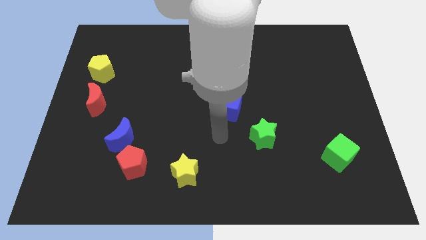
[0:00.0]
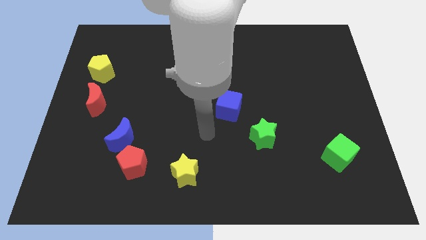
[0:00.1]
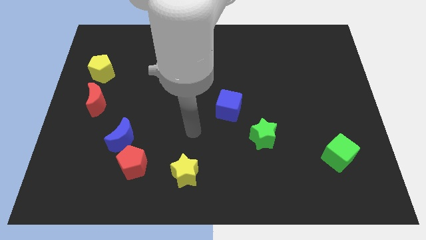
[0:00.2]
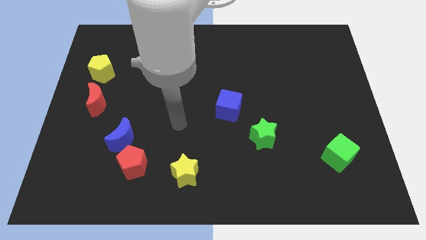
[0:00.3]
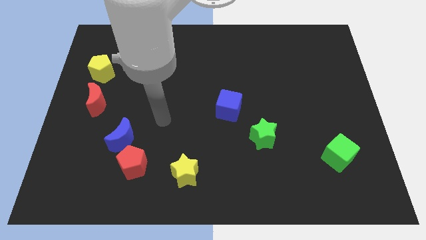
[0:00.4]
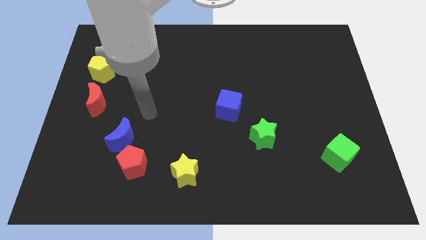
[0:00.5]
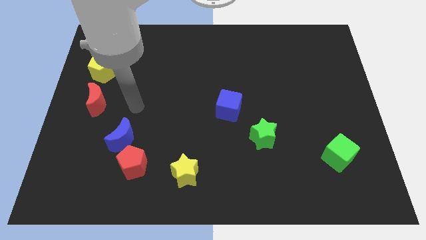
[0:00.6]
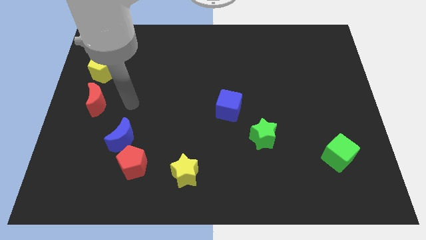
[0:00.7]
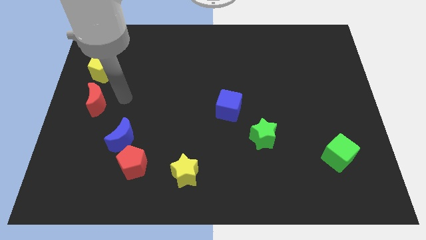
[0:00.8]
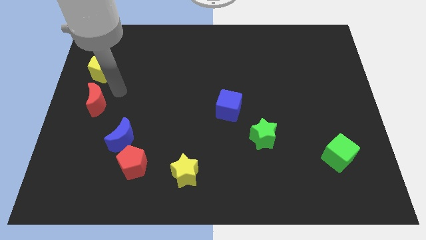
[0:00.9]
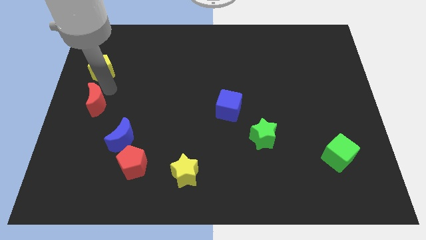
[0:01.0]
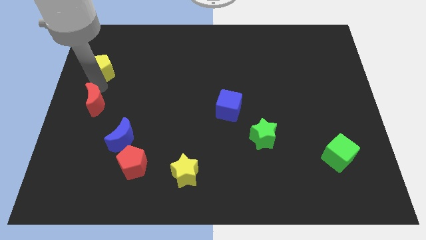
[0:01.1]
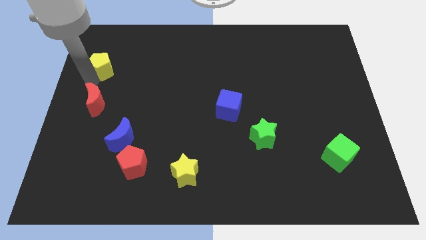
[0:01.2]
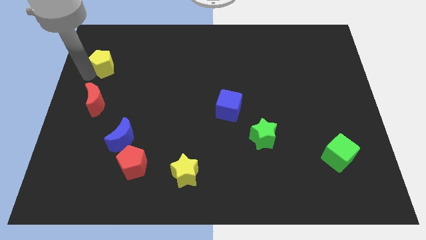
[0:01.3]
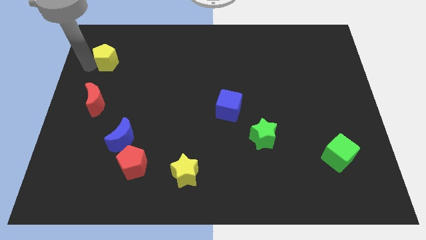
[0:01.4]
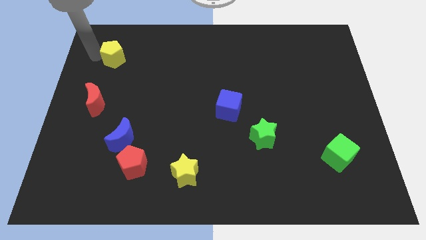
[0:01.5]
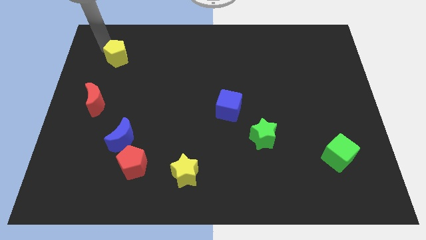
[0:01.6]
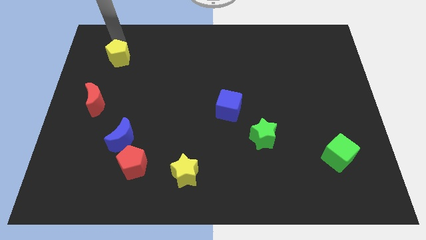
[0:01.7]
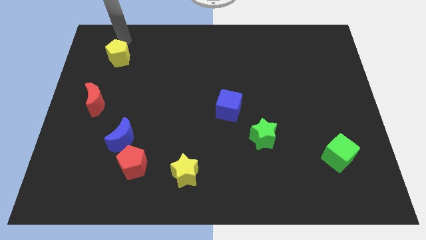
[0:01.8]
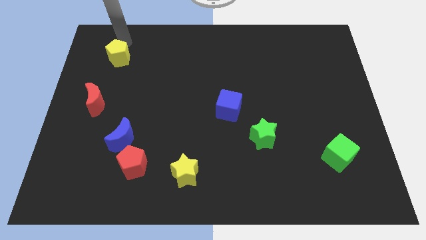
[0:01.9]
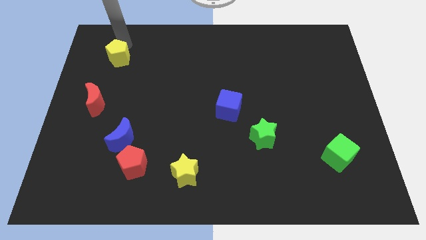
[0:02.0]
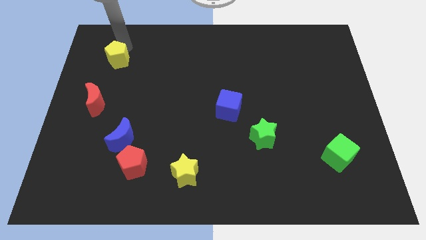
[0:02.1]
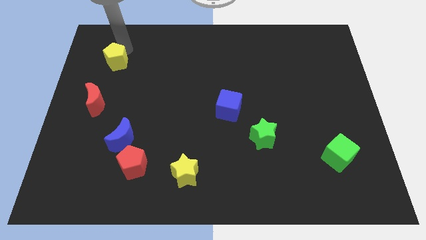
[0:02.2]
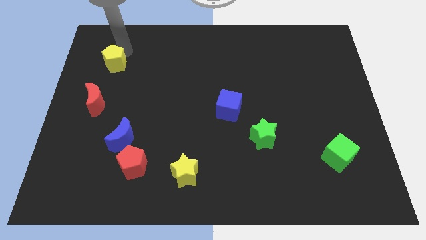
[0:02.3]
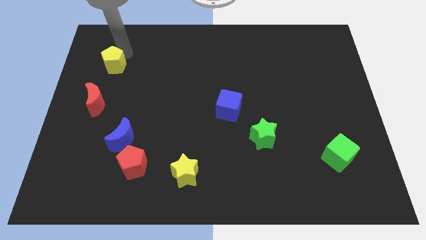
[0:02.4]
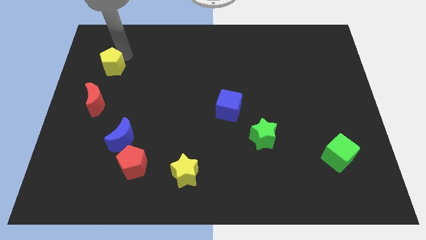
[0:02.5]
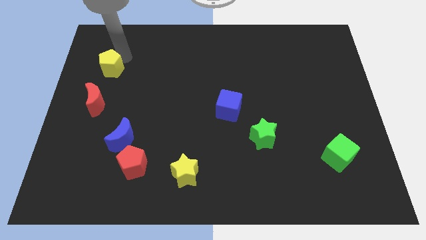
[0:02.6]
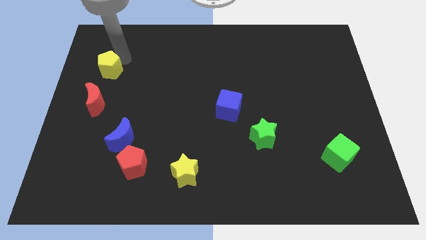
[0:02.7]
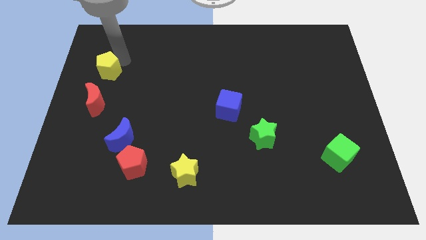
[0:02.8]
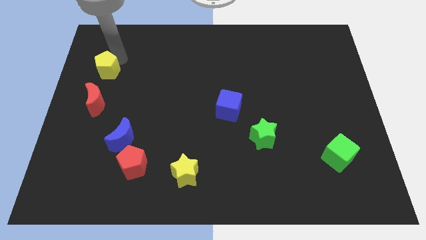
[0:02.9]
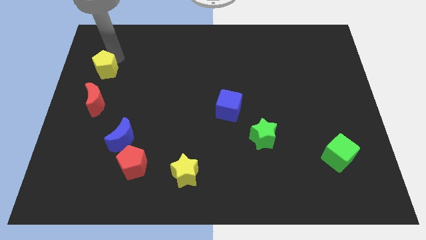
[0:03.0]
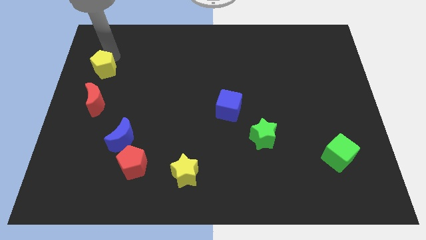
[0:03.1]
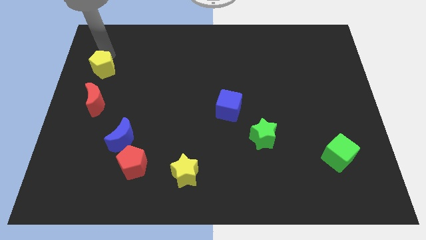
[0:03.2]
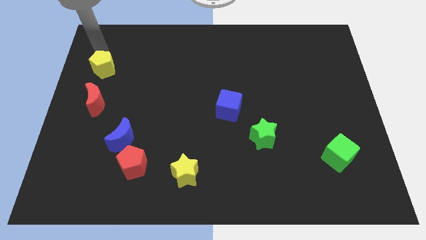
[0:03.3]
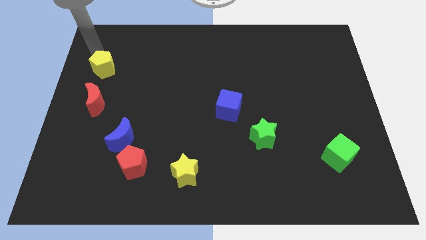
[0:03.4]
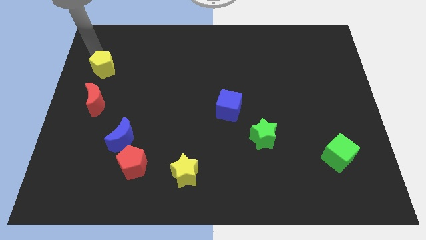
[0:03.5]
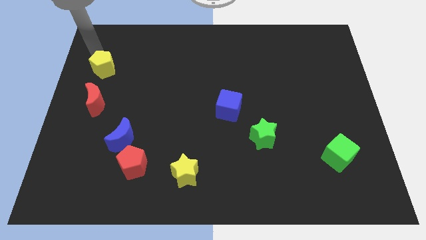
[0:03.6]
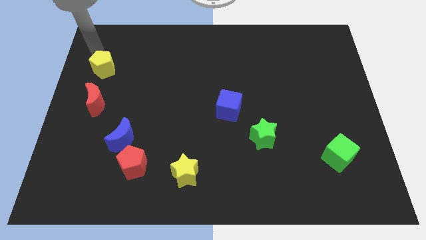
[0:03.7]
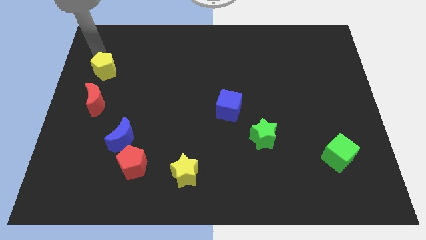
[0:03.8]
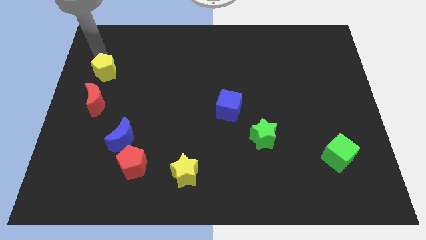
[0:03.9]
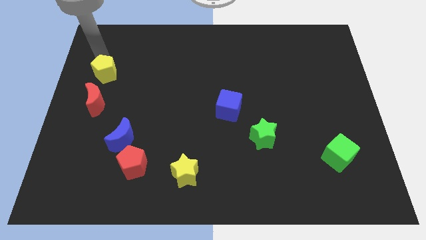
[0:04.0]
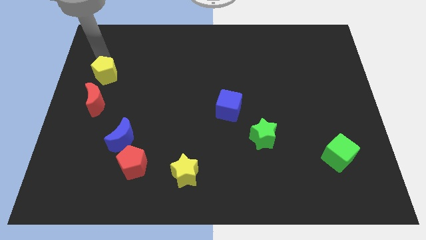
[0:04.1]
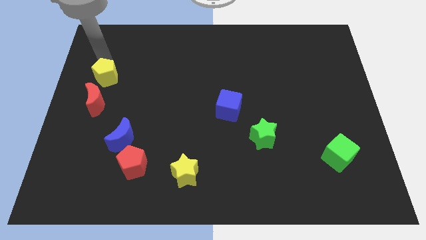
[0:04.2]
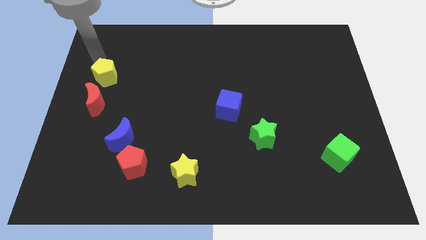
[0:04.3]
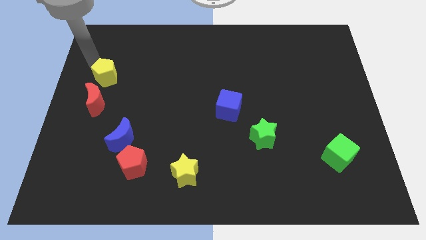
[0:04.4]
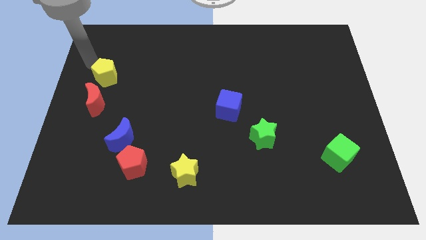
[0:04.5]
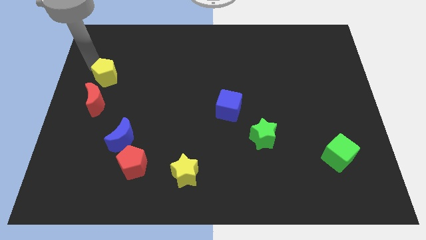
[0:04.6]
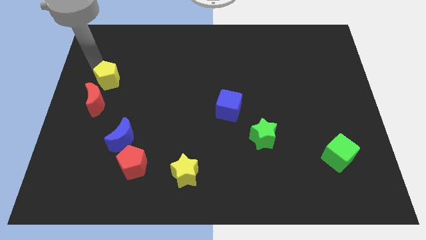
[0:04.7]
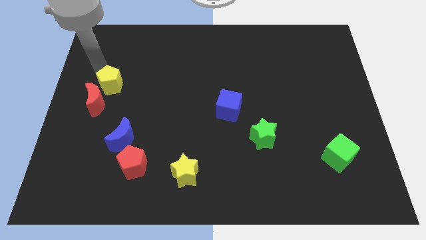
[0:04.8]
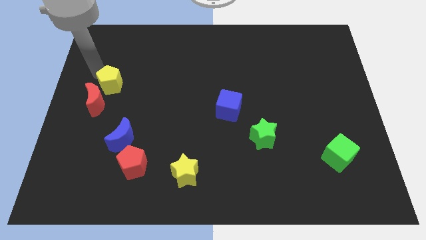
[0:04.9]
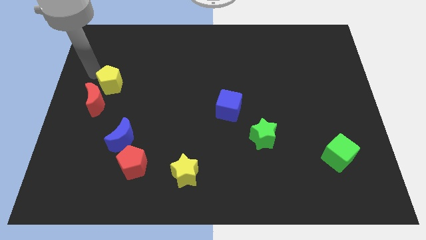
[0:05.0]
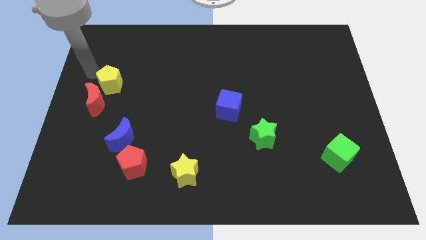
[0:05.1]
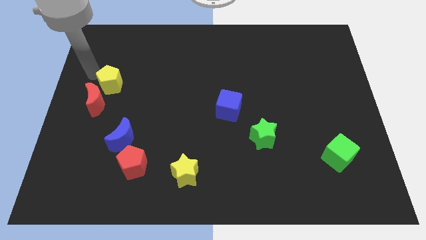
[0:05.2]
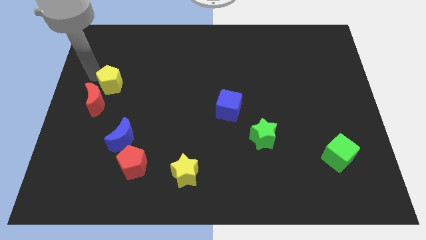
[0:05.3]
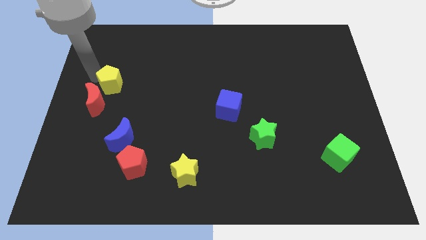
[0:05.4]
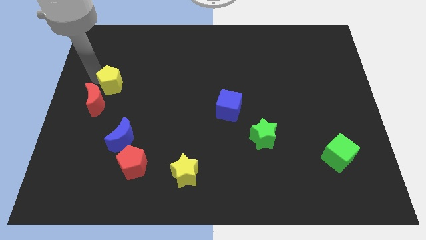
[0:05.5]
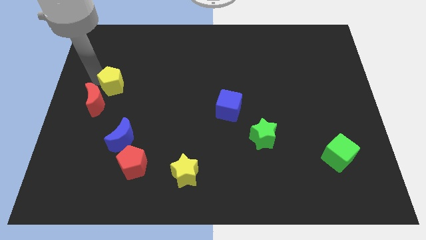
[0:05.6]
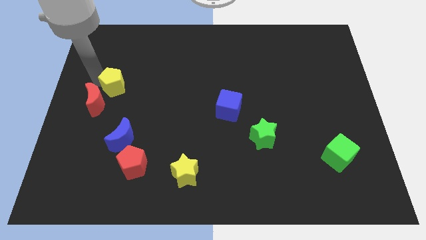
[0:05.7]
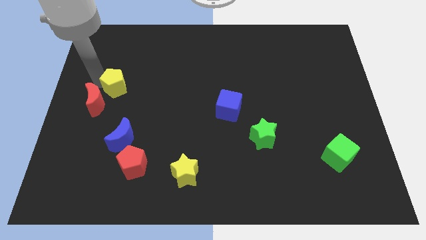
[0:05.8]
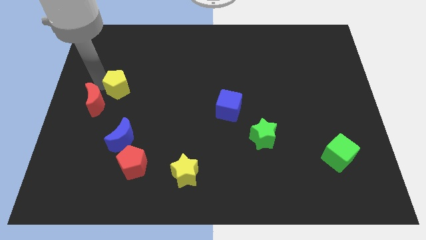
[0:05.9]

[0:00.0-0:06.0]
push the yellow pentagon a bit down and then to the right

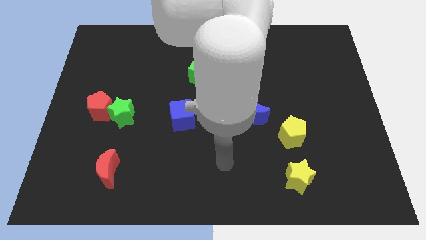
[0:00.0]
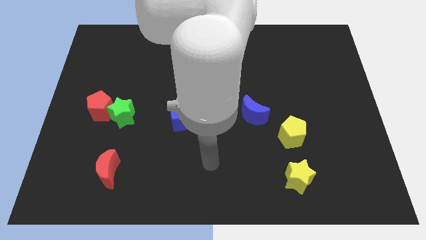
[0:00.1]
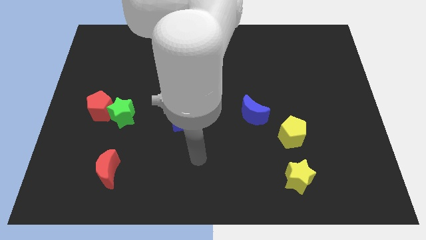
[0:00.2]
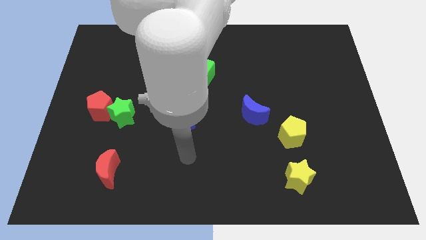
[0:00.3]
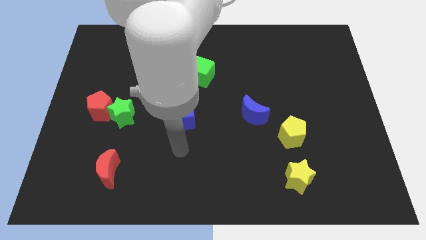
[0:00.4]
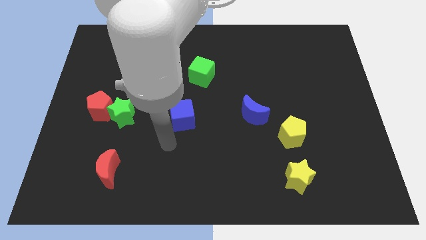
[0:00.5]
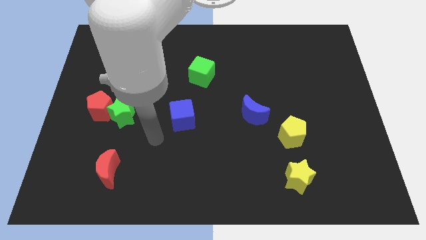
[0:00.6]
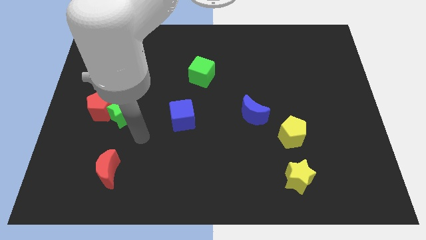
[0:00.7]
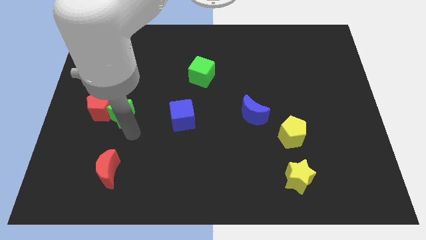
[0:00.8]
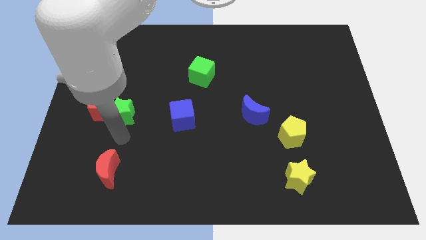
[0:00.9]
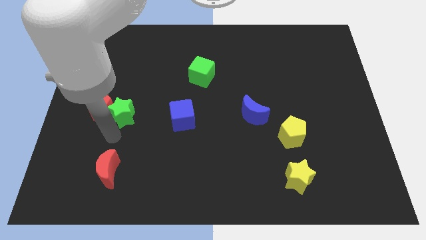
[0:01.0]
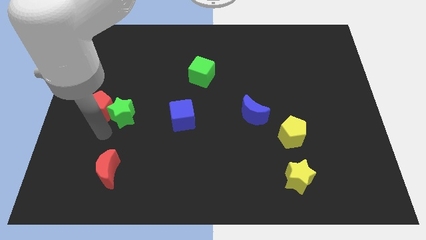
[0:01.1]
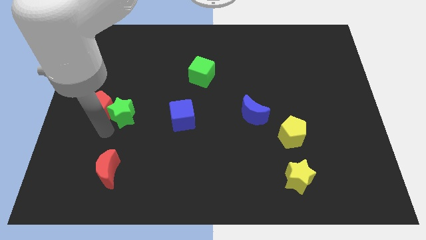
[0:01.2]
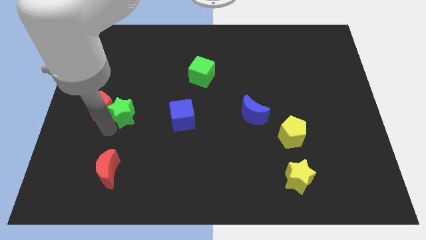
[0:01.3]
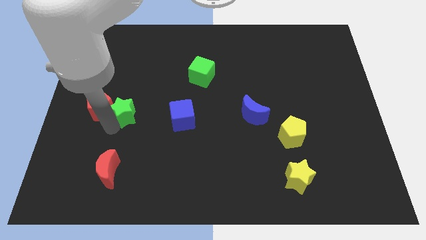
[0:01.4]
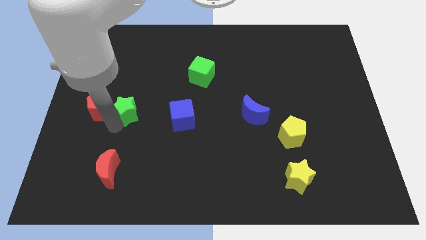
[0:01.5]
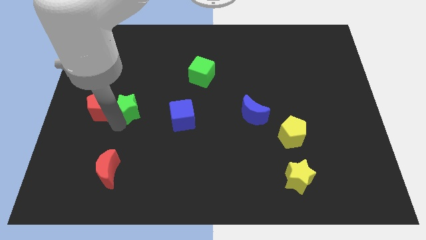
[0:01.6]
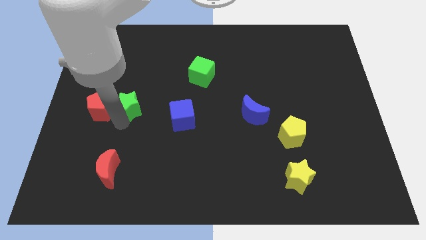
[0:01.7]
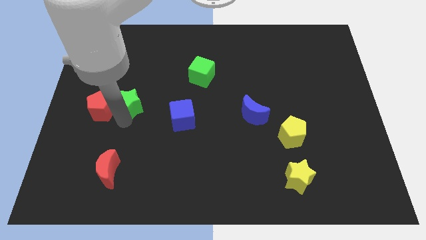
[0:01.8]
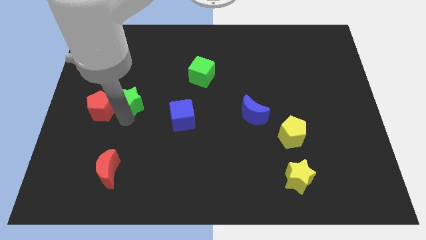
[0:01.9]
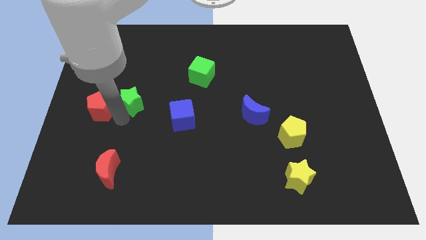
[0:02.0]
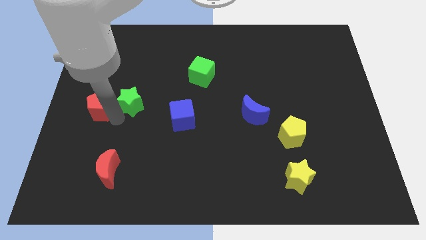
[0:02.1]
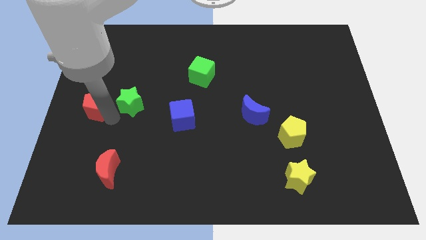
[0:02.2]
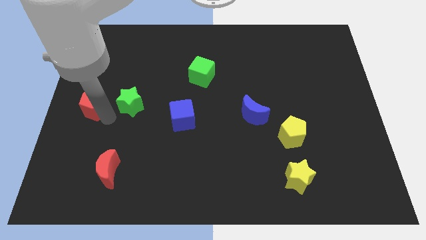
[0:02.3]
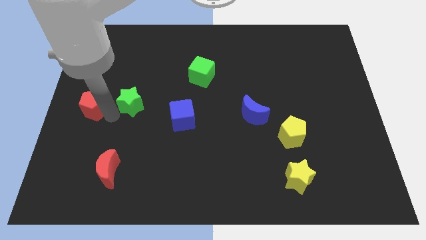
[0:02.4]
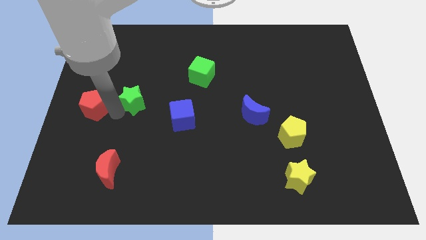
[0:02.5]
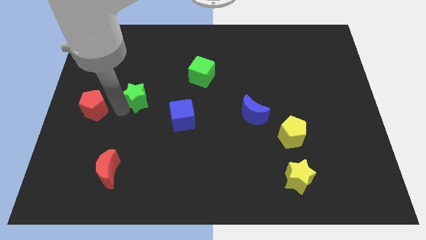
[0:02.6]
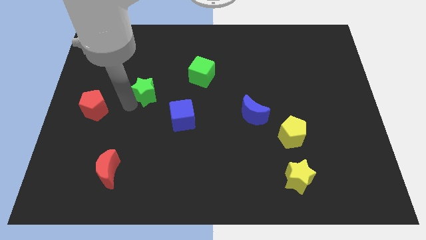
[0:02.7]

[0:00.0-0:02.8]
push the green star slightly upwards and right diagonally
